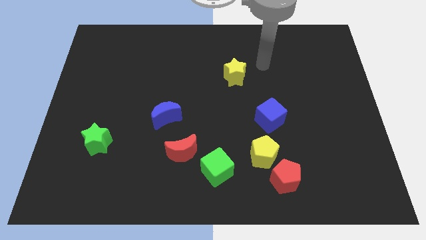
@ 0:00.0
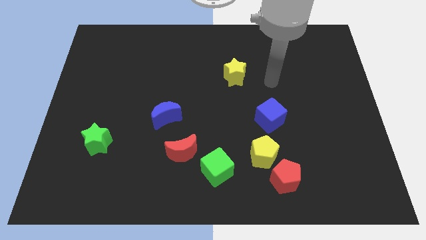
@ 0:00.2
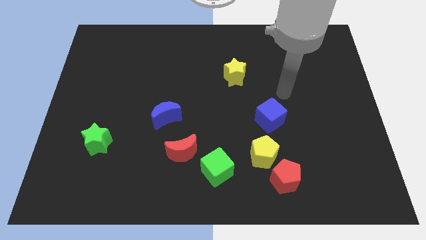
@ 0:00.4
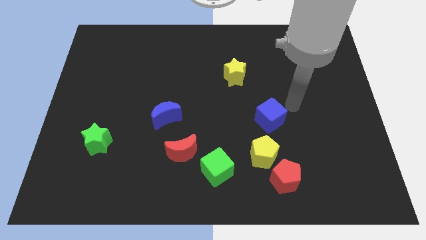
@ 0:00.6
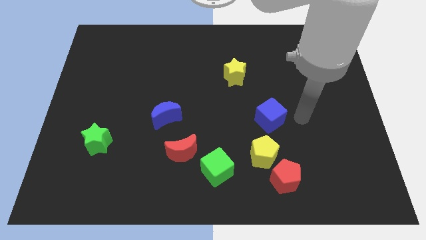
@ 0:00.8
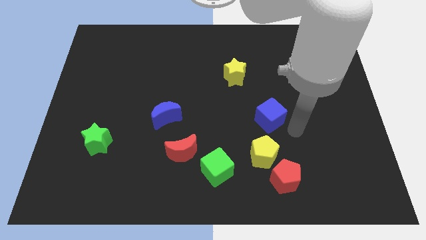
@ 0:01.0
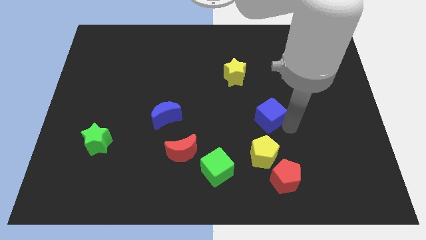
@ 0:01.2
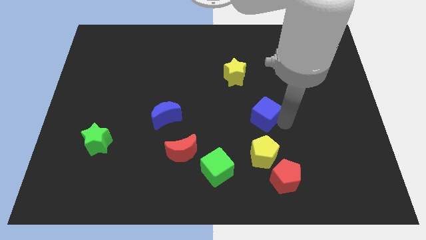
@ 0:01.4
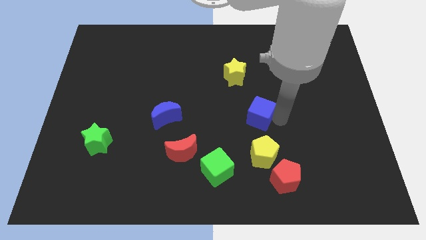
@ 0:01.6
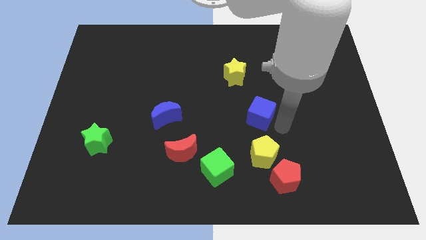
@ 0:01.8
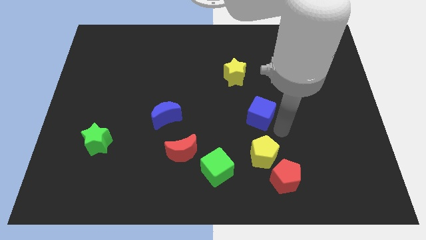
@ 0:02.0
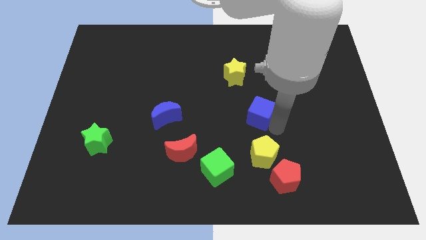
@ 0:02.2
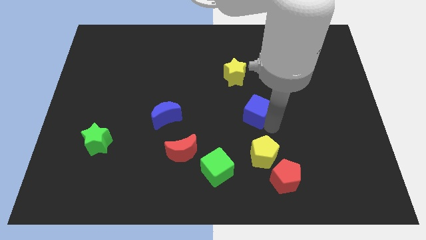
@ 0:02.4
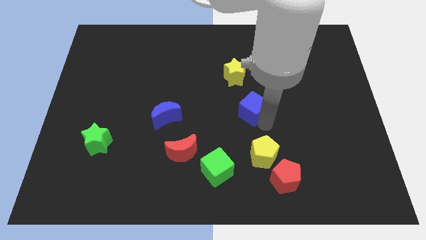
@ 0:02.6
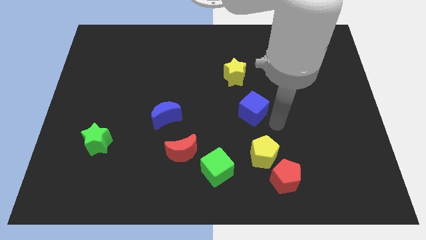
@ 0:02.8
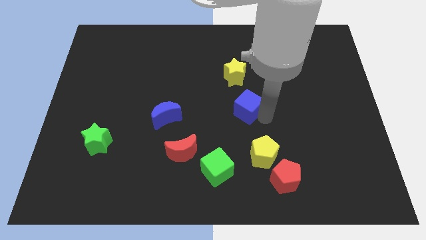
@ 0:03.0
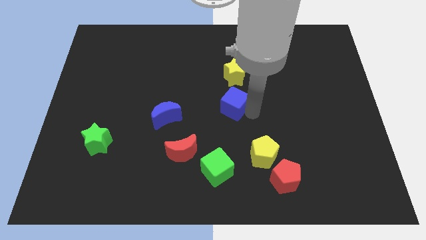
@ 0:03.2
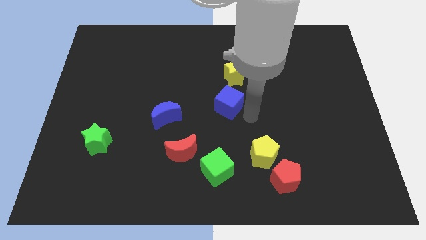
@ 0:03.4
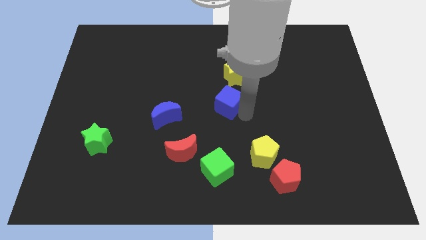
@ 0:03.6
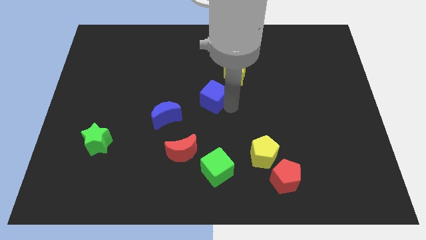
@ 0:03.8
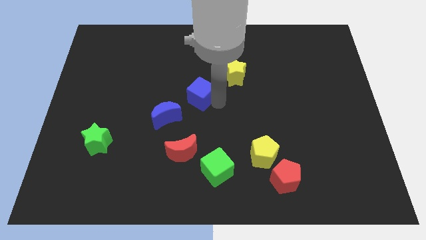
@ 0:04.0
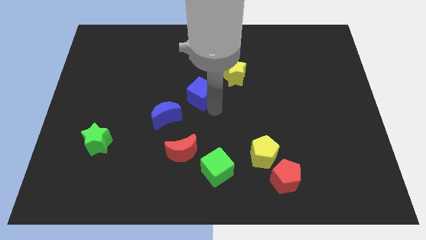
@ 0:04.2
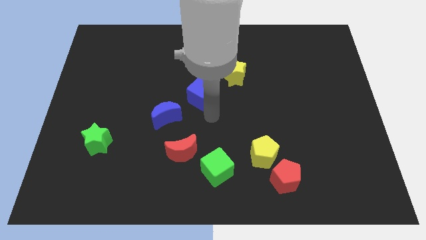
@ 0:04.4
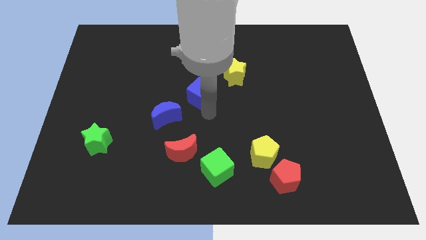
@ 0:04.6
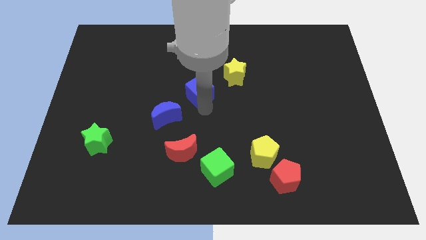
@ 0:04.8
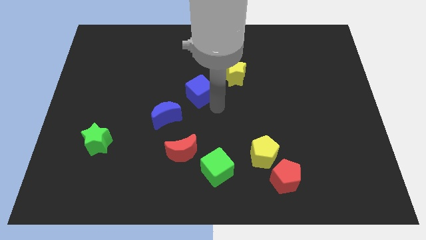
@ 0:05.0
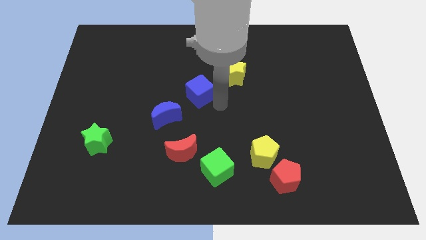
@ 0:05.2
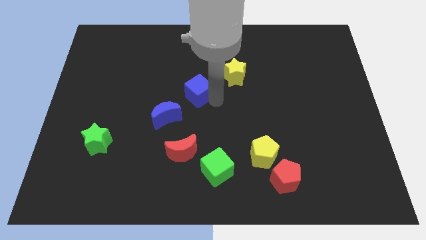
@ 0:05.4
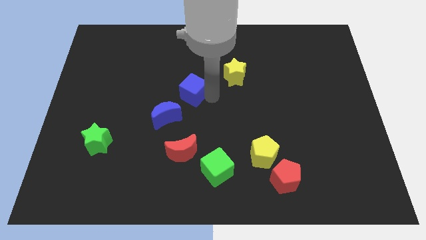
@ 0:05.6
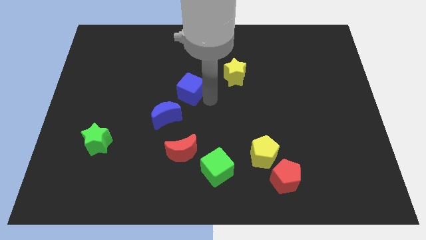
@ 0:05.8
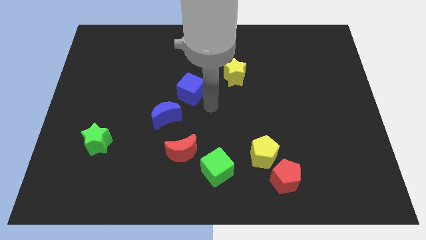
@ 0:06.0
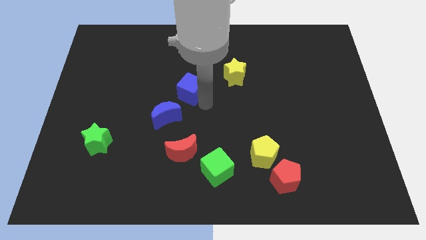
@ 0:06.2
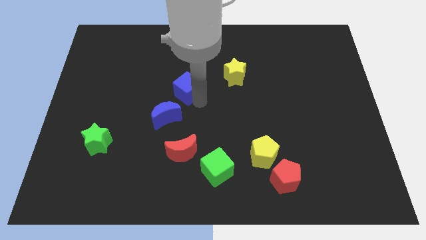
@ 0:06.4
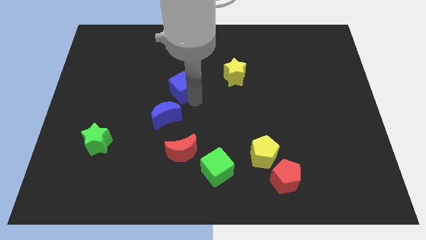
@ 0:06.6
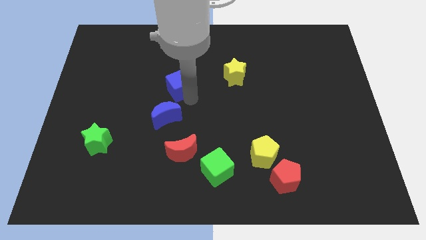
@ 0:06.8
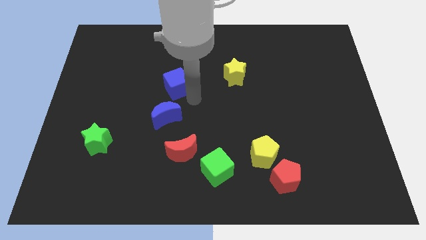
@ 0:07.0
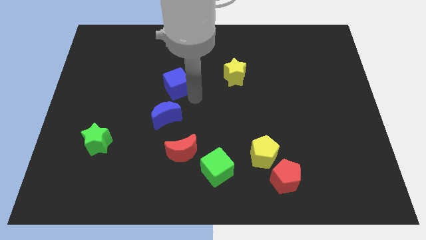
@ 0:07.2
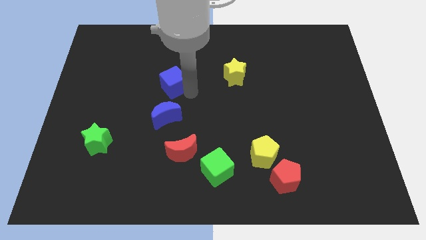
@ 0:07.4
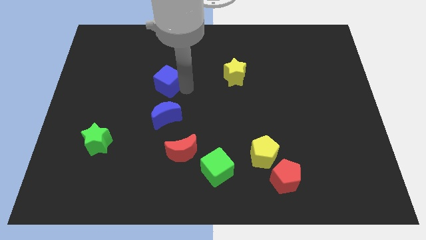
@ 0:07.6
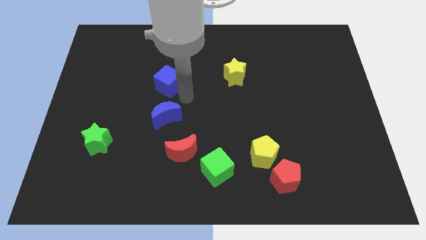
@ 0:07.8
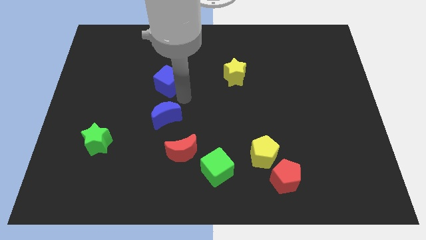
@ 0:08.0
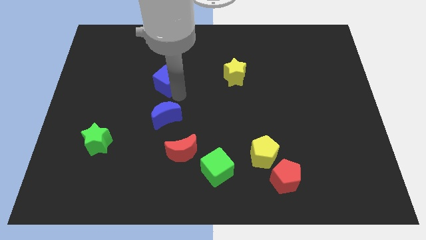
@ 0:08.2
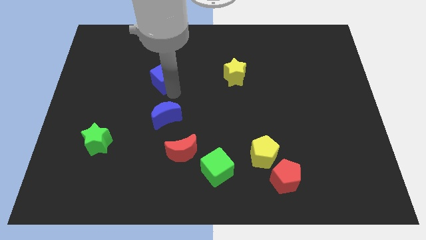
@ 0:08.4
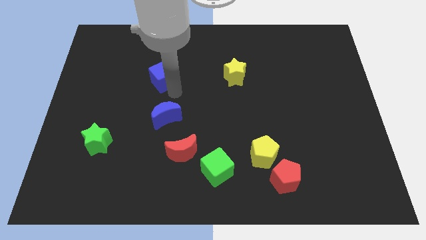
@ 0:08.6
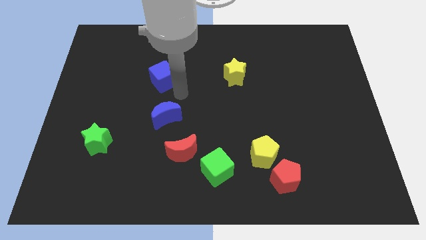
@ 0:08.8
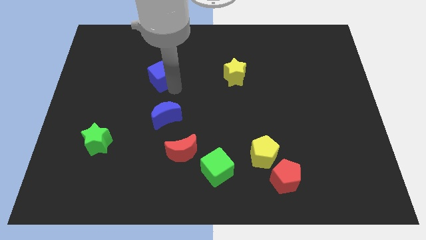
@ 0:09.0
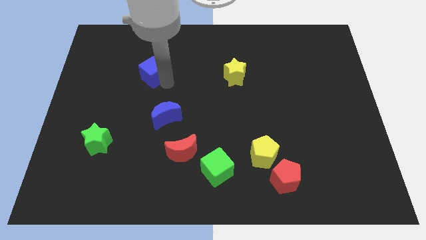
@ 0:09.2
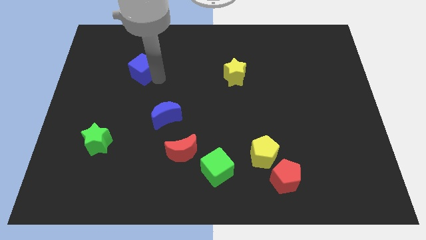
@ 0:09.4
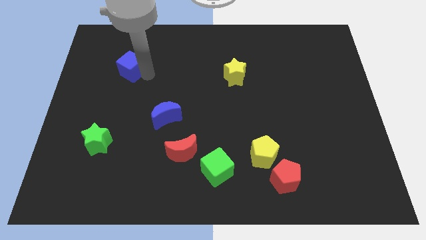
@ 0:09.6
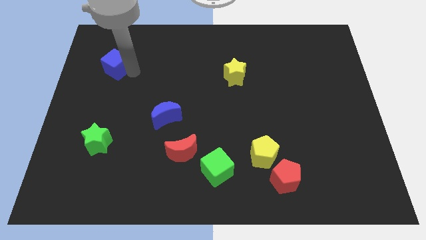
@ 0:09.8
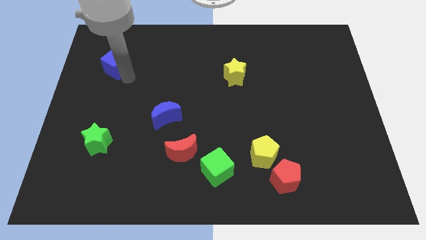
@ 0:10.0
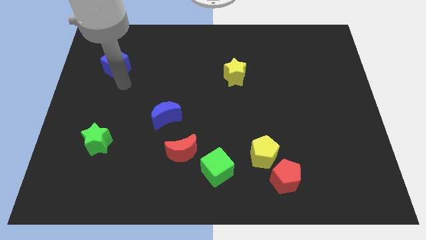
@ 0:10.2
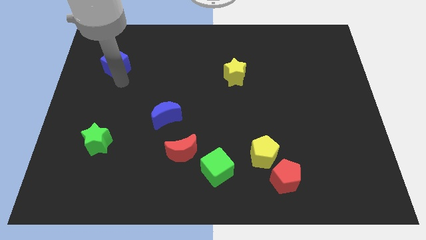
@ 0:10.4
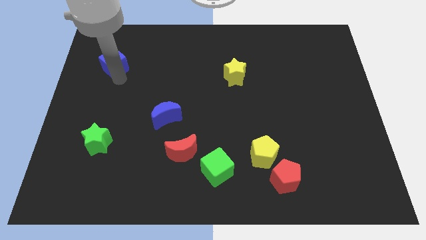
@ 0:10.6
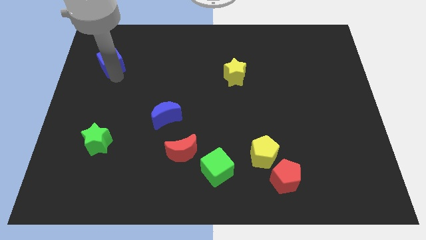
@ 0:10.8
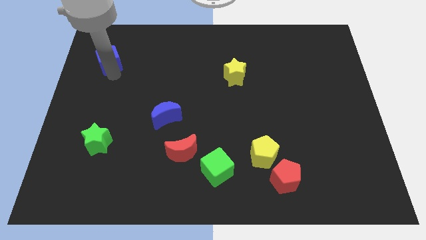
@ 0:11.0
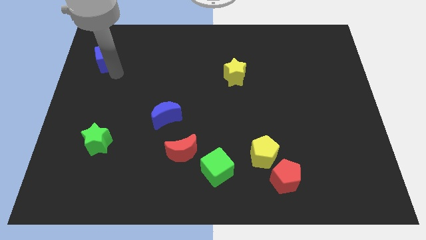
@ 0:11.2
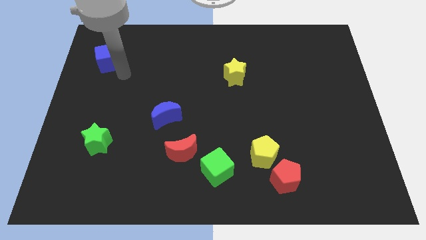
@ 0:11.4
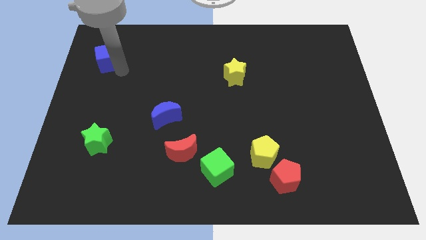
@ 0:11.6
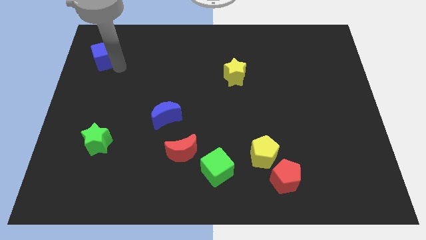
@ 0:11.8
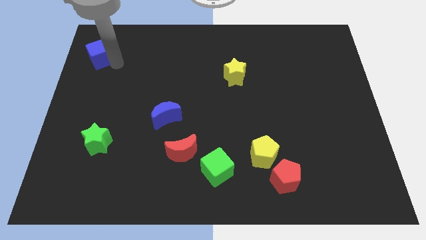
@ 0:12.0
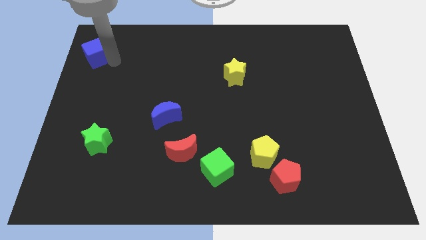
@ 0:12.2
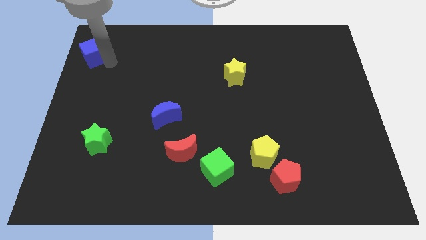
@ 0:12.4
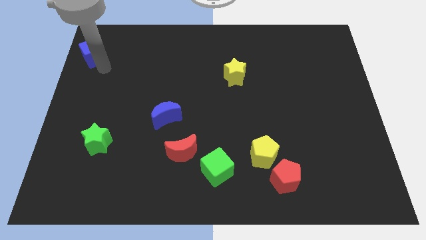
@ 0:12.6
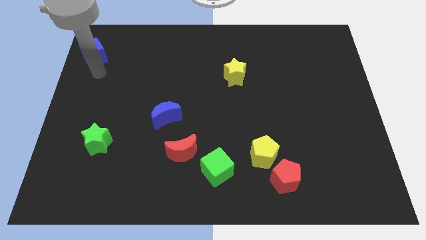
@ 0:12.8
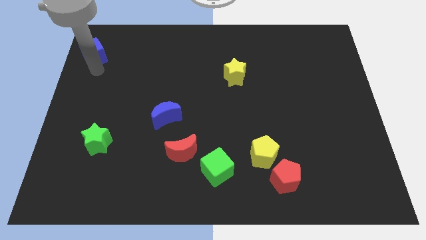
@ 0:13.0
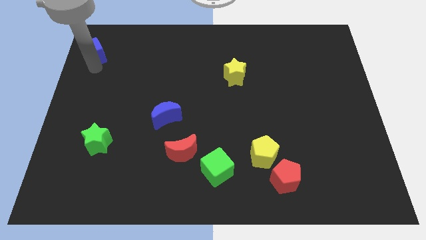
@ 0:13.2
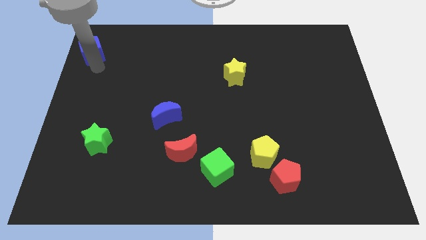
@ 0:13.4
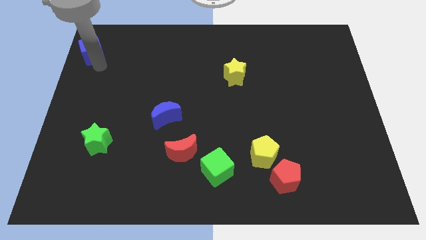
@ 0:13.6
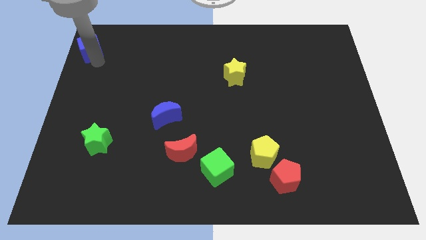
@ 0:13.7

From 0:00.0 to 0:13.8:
move the blue cube to the top left corner
